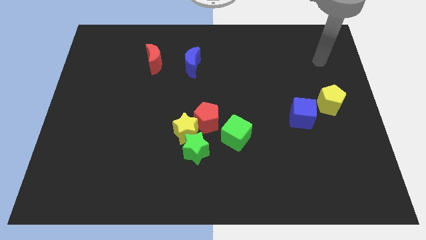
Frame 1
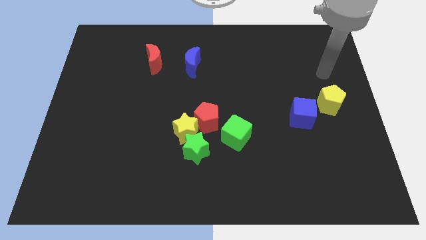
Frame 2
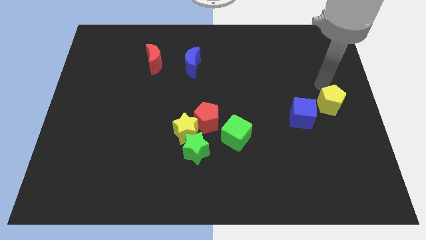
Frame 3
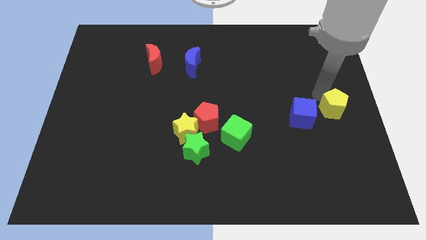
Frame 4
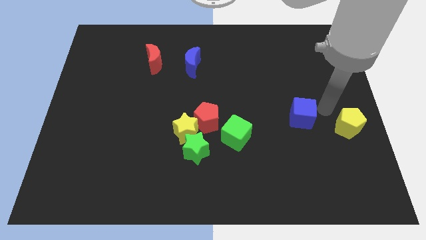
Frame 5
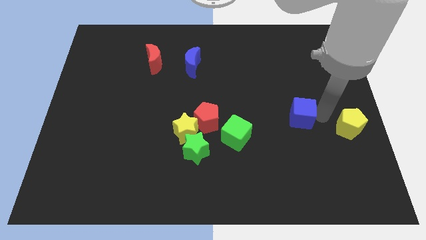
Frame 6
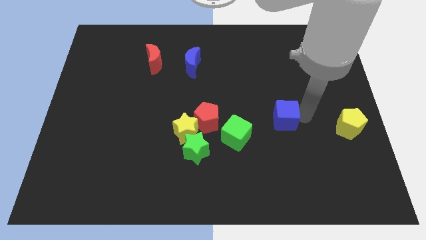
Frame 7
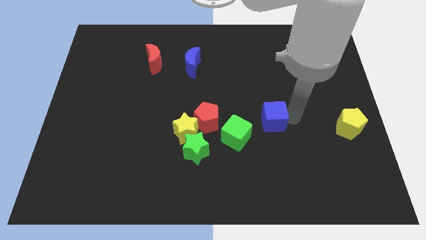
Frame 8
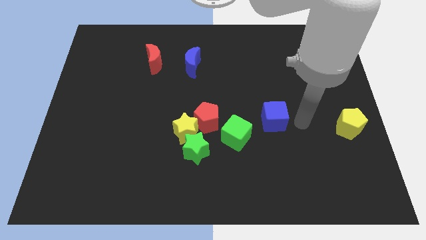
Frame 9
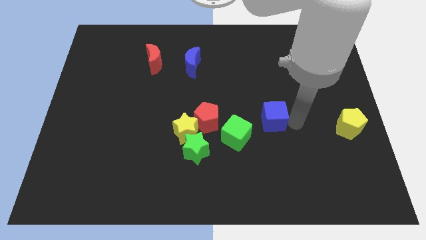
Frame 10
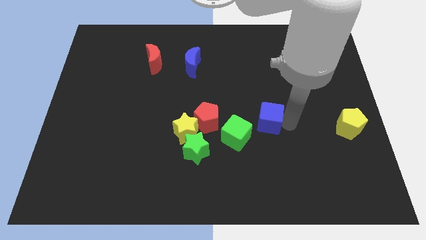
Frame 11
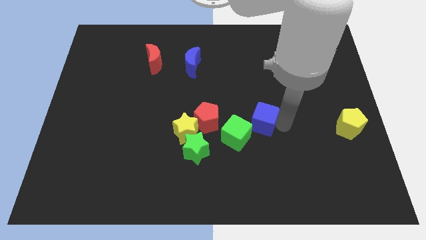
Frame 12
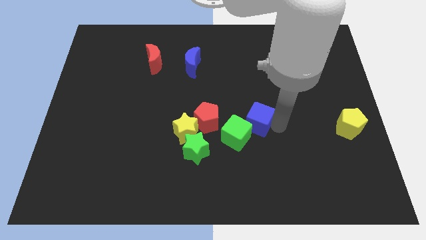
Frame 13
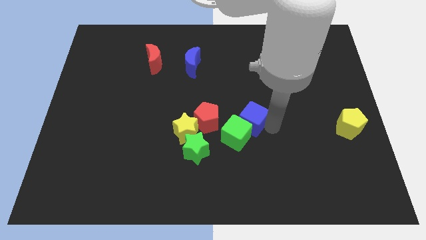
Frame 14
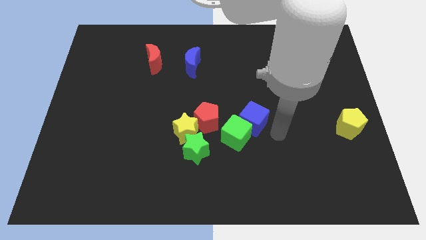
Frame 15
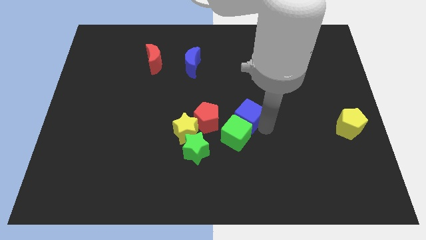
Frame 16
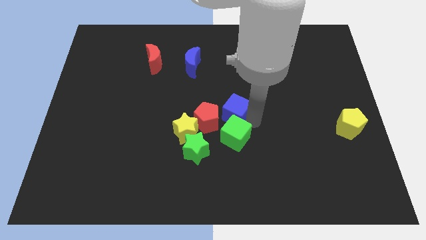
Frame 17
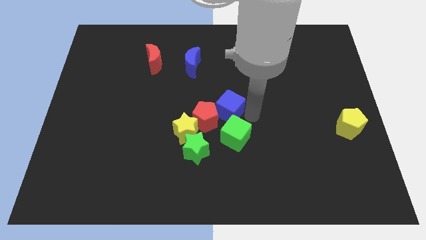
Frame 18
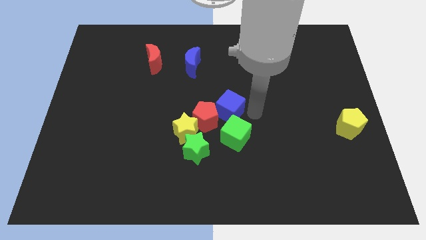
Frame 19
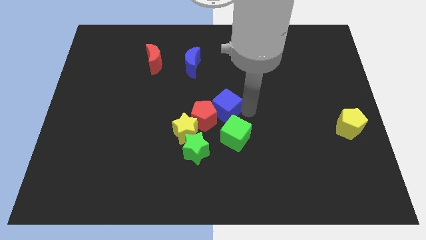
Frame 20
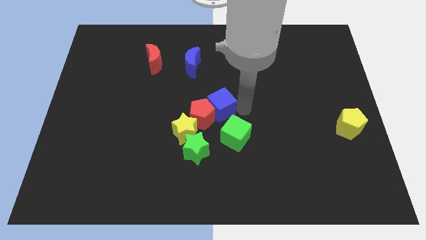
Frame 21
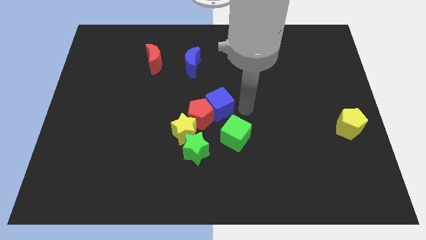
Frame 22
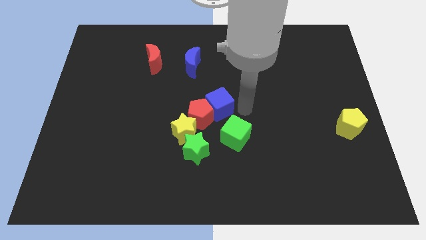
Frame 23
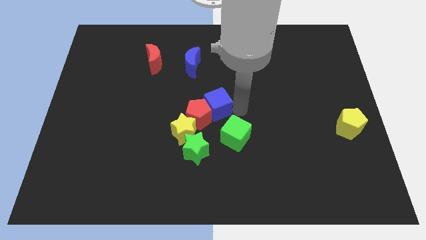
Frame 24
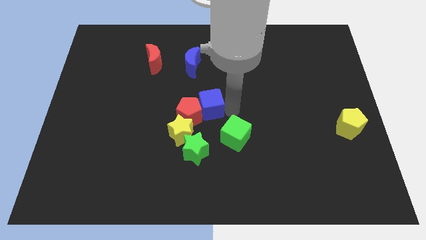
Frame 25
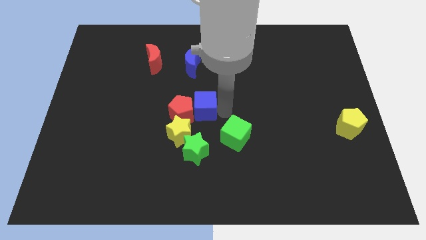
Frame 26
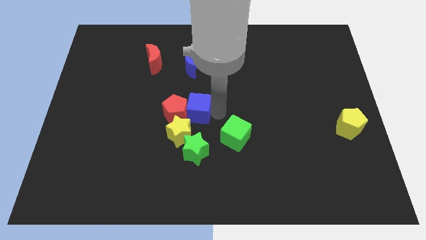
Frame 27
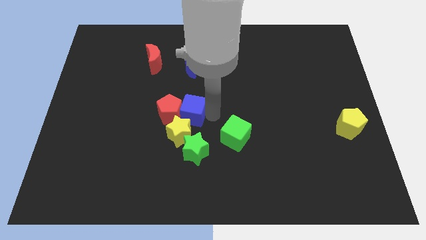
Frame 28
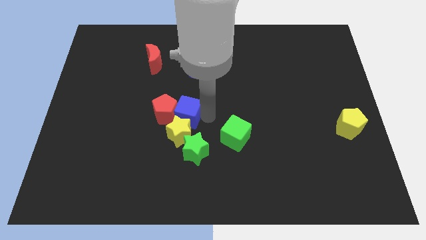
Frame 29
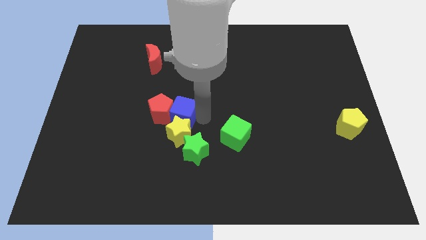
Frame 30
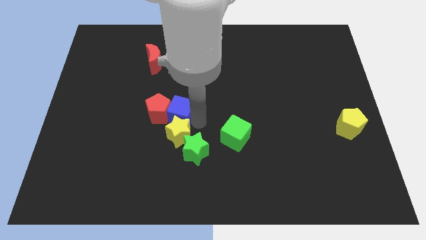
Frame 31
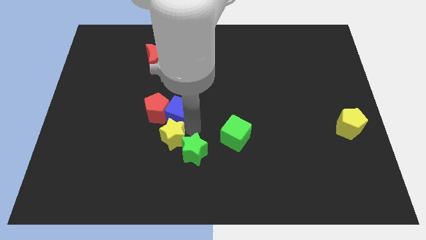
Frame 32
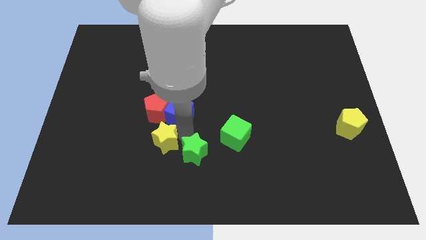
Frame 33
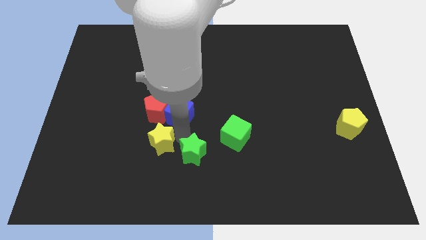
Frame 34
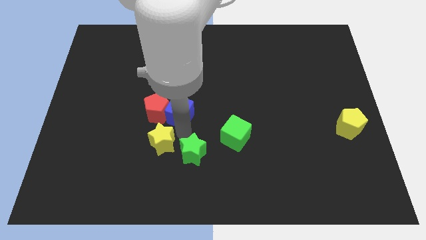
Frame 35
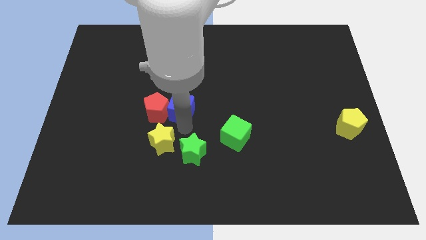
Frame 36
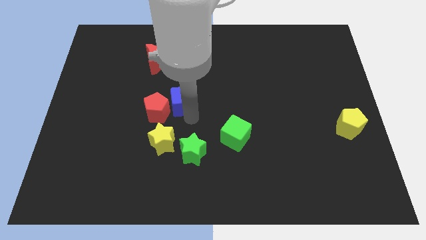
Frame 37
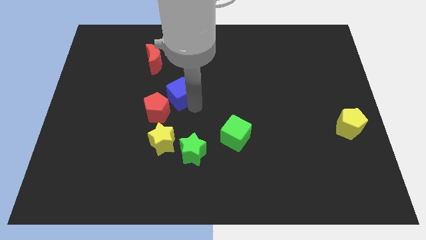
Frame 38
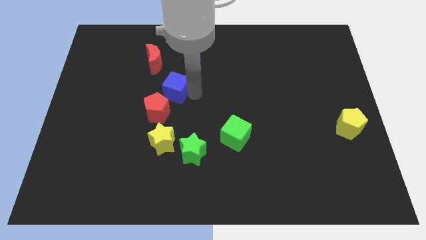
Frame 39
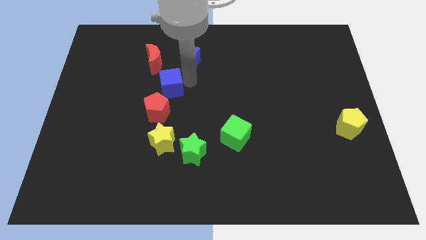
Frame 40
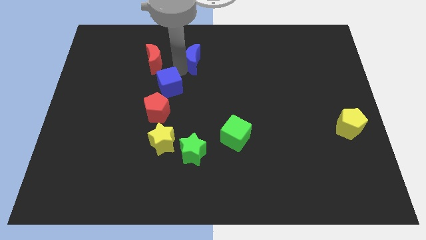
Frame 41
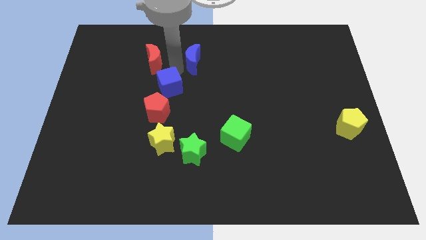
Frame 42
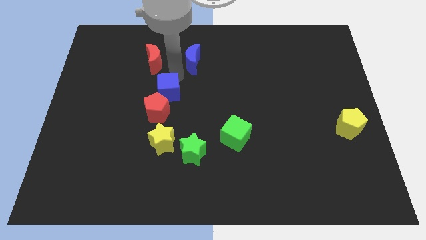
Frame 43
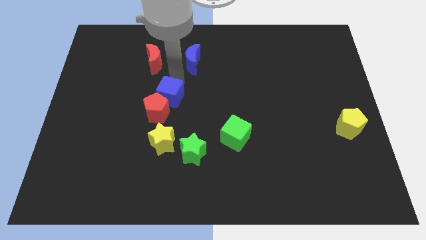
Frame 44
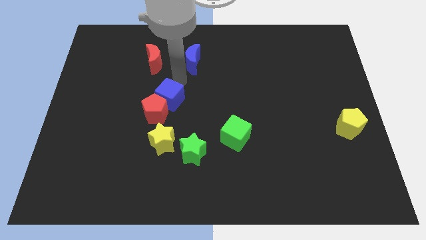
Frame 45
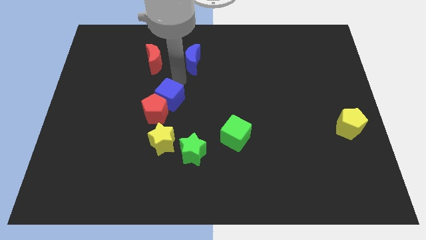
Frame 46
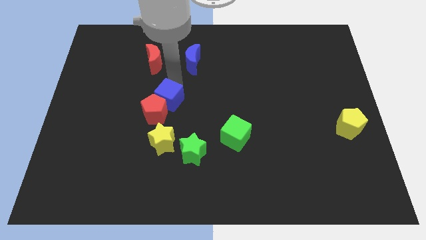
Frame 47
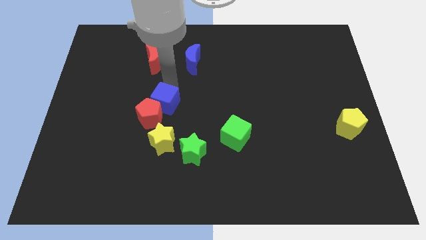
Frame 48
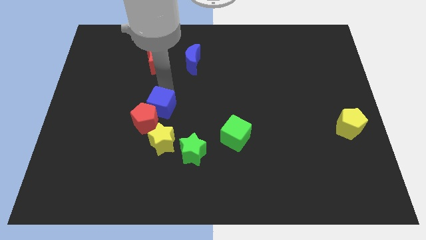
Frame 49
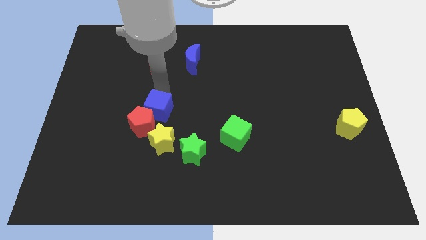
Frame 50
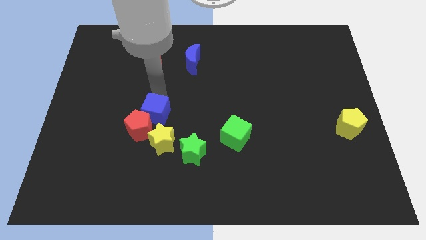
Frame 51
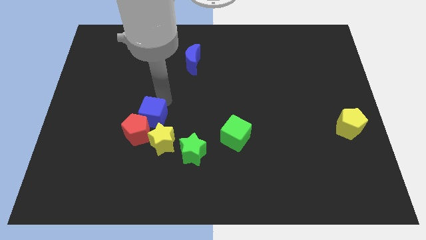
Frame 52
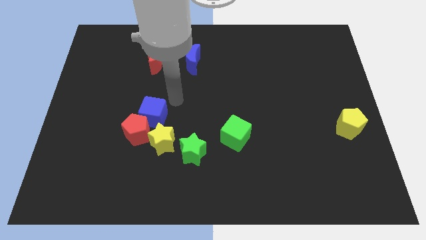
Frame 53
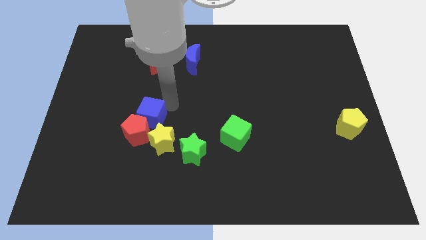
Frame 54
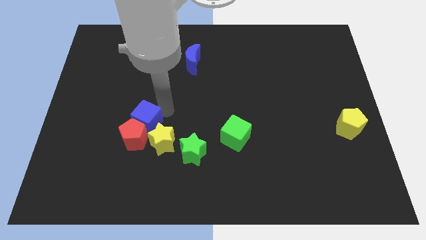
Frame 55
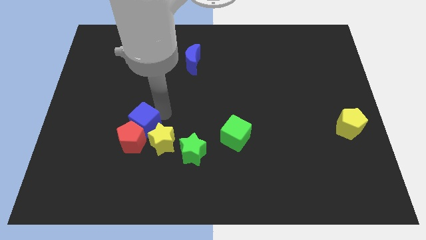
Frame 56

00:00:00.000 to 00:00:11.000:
slide the blue cube to the left of the yellow star

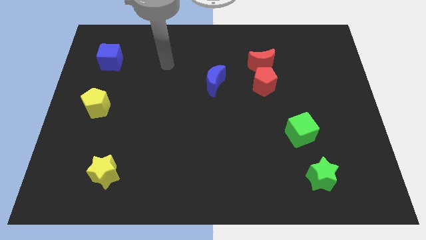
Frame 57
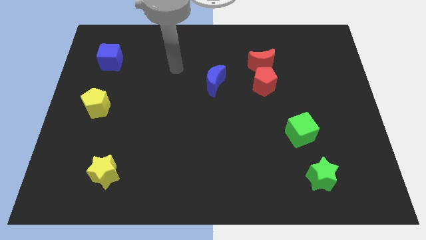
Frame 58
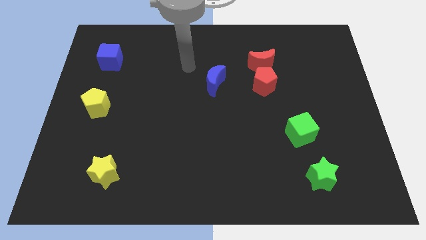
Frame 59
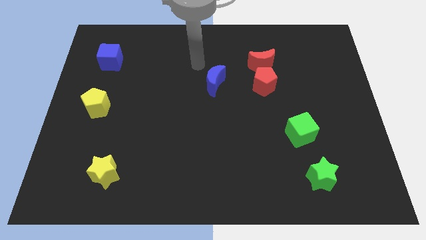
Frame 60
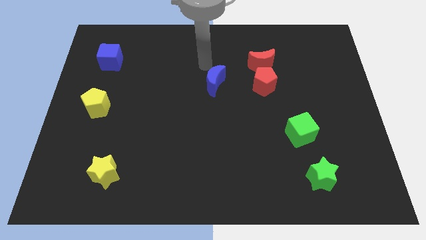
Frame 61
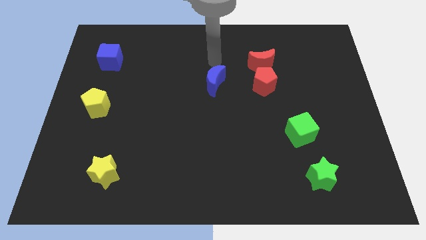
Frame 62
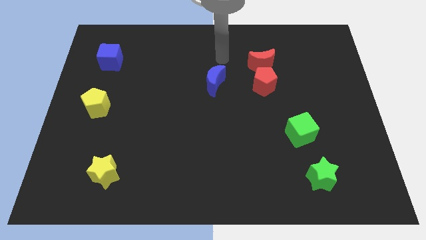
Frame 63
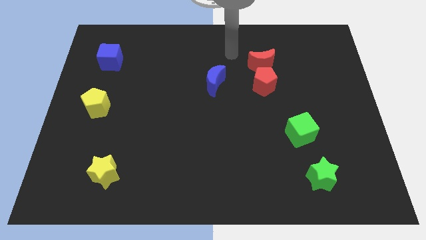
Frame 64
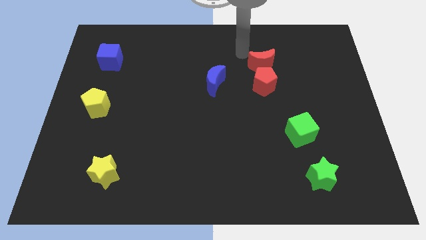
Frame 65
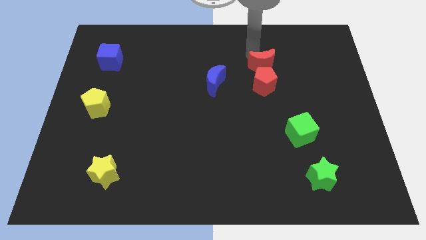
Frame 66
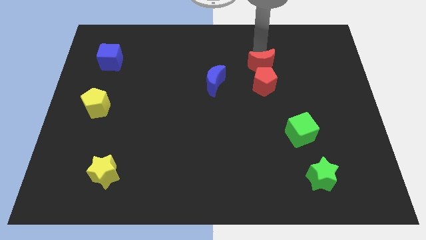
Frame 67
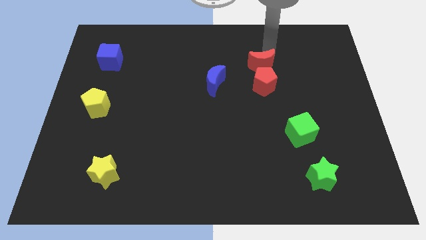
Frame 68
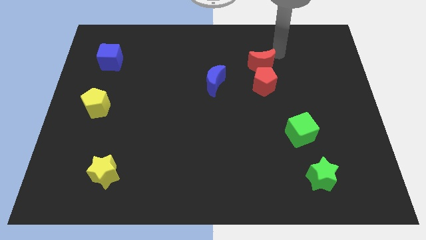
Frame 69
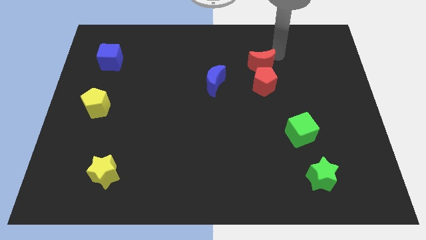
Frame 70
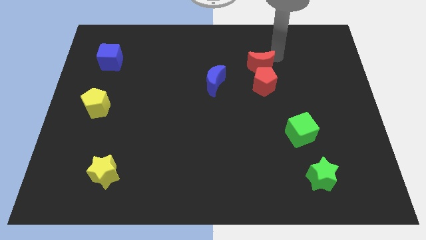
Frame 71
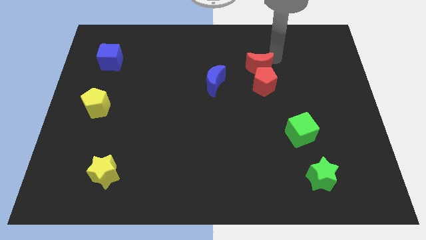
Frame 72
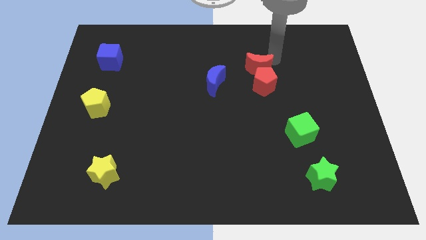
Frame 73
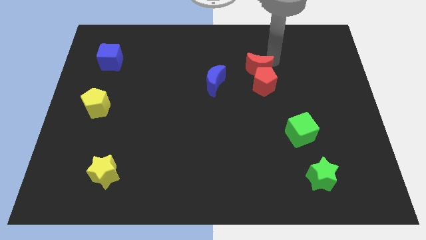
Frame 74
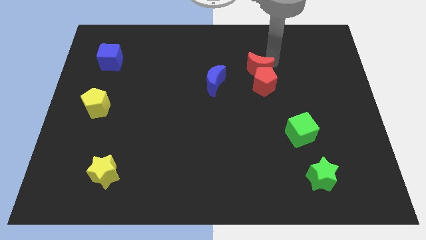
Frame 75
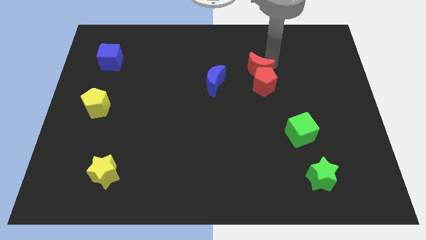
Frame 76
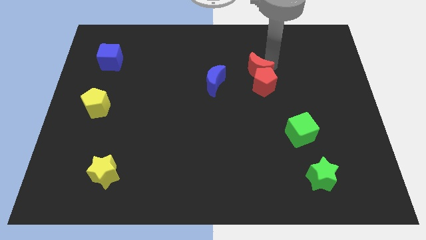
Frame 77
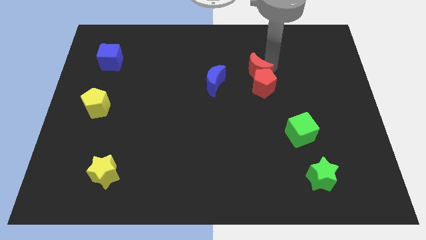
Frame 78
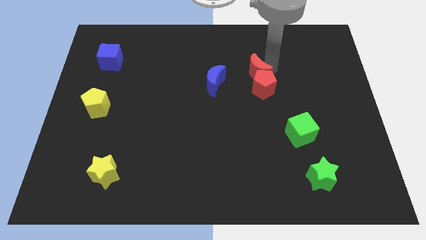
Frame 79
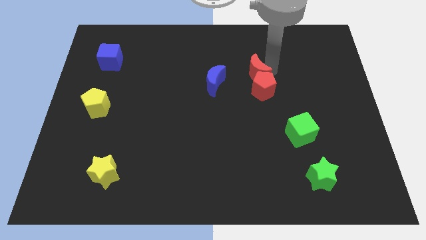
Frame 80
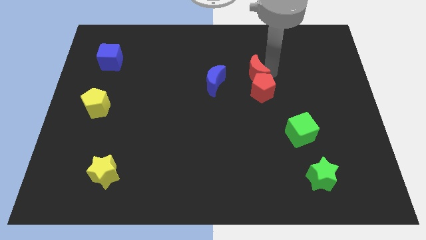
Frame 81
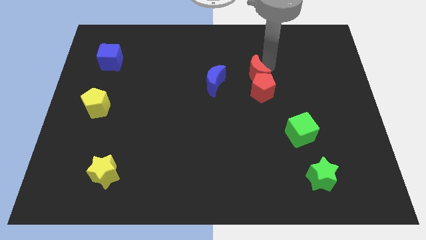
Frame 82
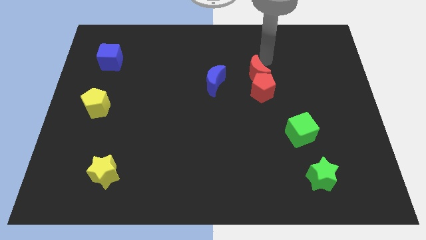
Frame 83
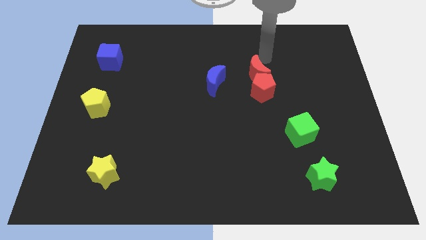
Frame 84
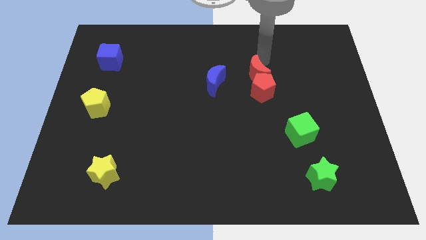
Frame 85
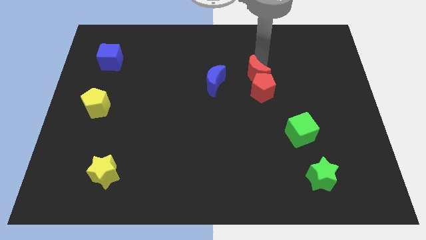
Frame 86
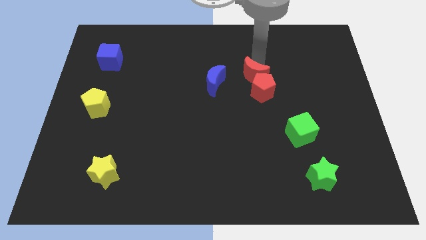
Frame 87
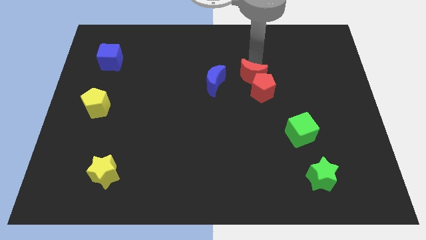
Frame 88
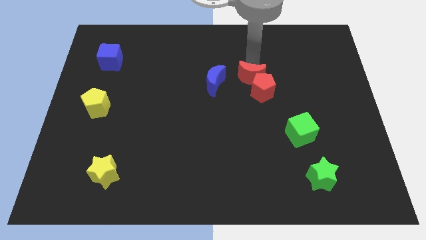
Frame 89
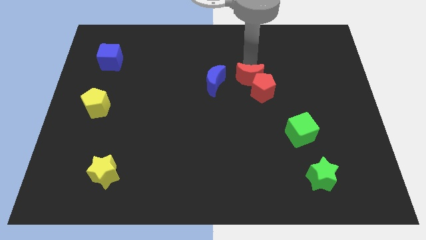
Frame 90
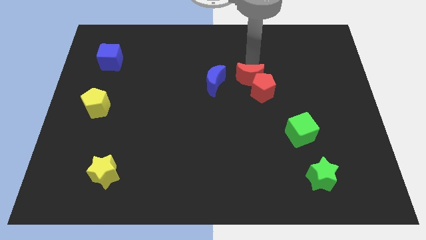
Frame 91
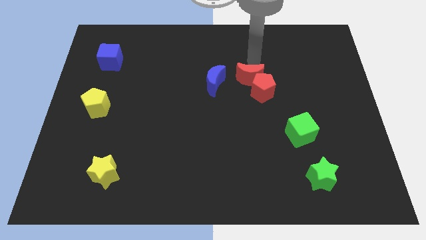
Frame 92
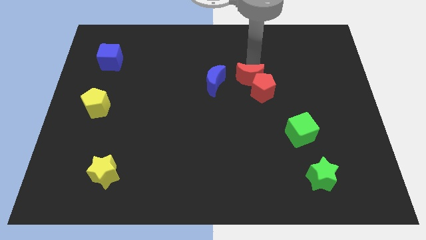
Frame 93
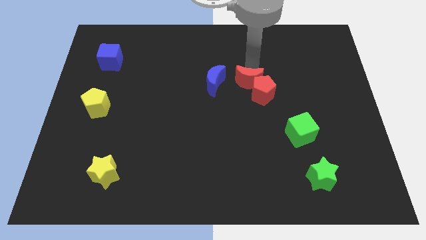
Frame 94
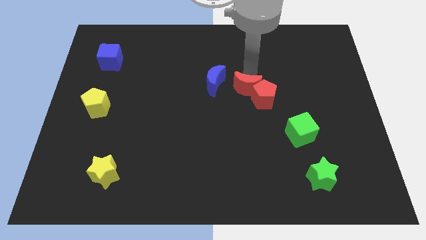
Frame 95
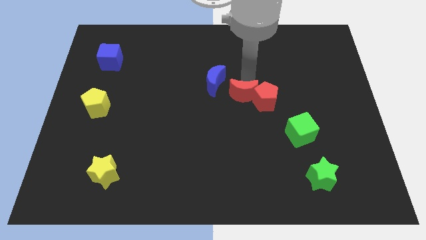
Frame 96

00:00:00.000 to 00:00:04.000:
move the red moon to the bottom left of the red pentagon
